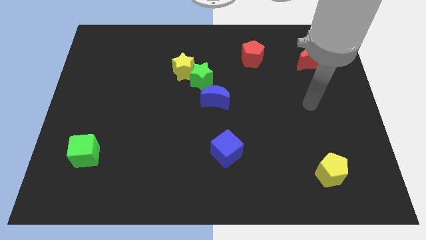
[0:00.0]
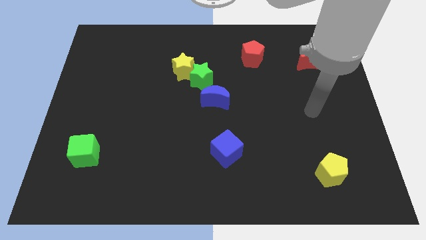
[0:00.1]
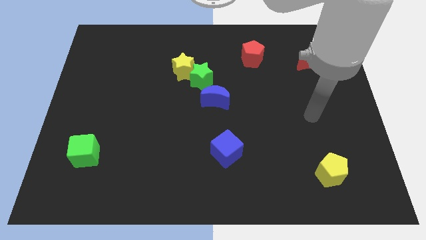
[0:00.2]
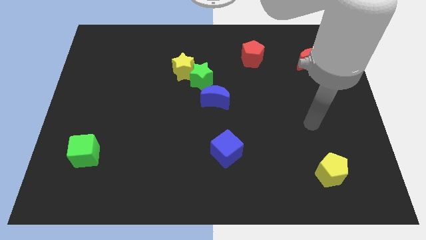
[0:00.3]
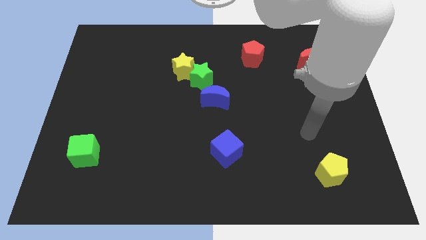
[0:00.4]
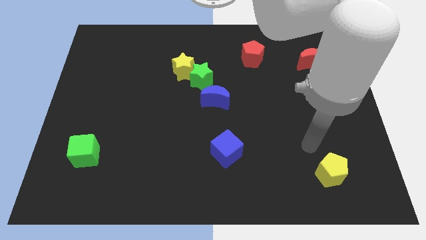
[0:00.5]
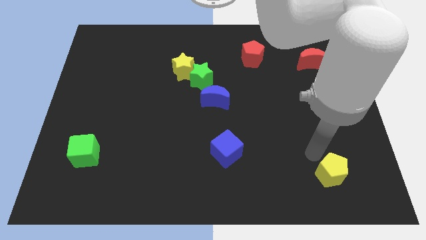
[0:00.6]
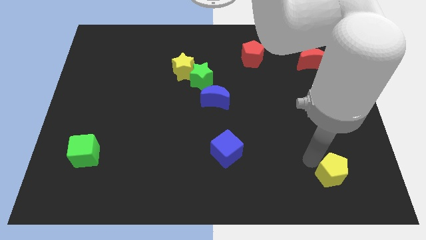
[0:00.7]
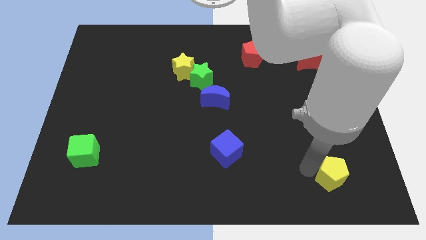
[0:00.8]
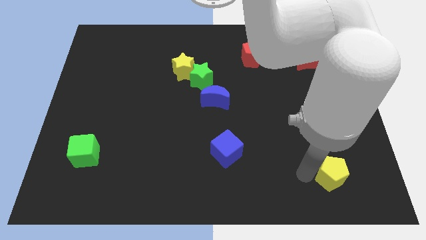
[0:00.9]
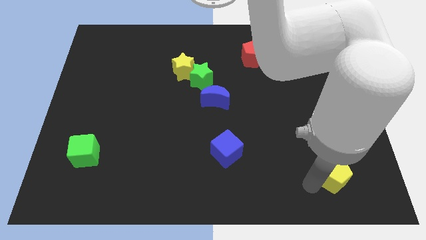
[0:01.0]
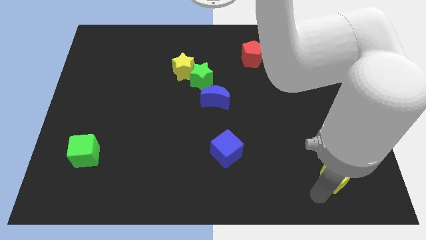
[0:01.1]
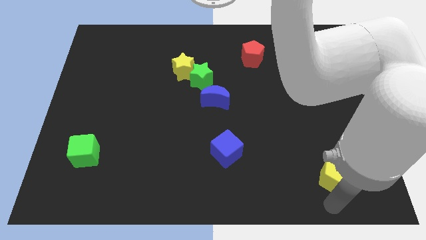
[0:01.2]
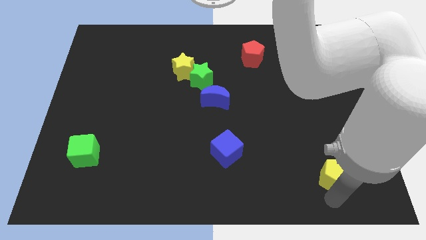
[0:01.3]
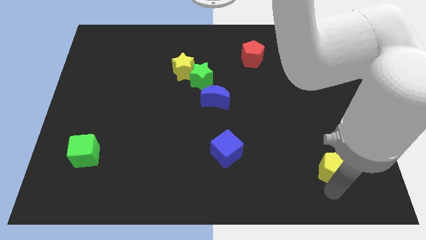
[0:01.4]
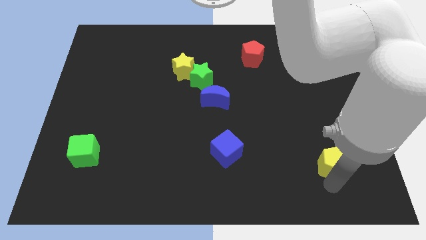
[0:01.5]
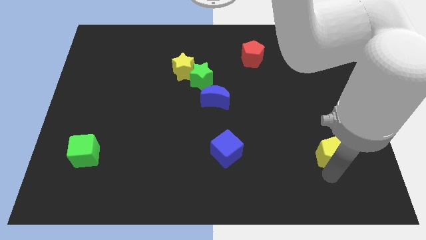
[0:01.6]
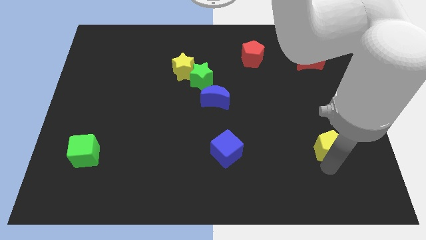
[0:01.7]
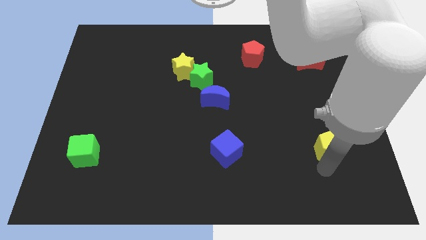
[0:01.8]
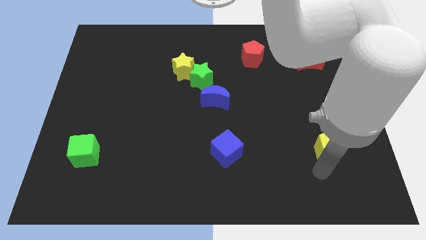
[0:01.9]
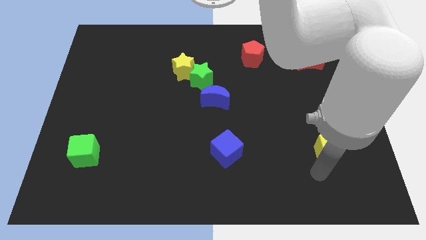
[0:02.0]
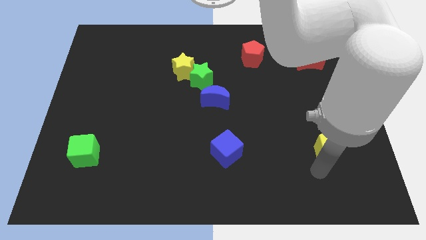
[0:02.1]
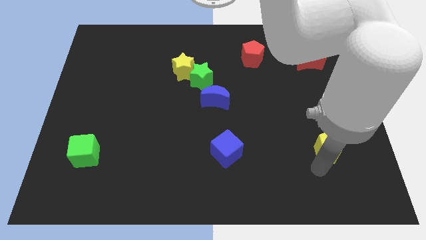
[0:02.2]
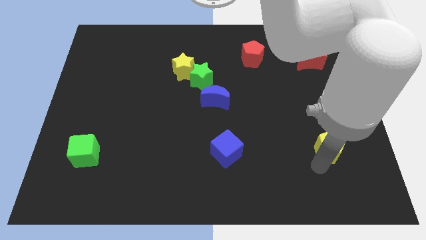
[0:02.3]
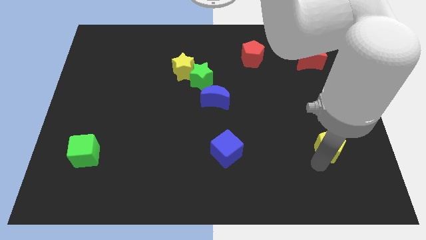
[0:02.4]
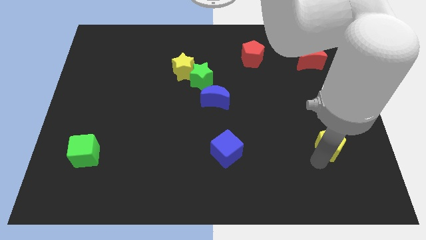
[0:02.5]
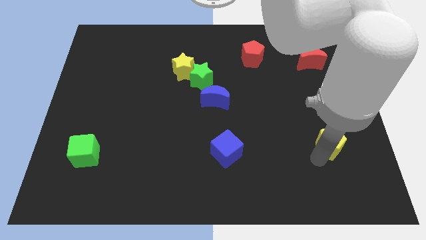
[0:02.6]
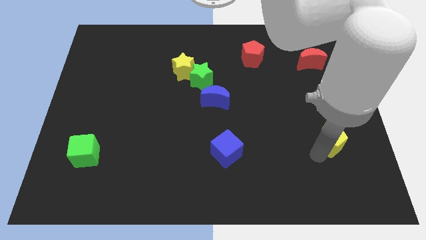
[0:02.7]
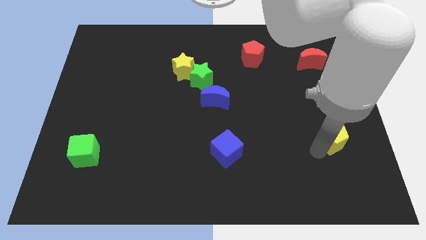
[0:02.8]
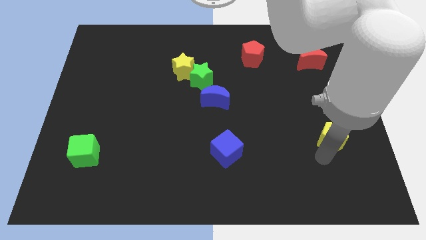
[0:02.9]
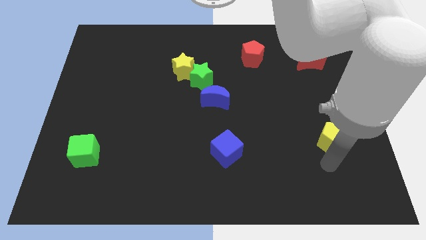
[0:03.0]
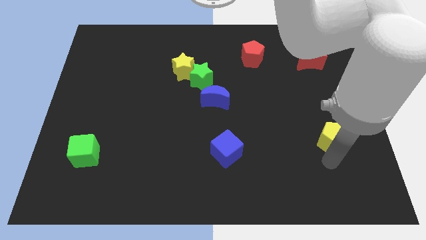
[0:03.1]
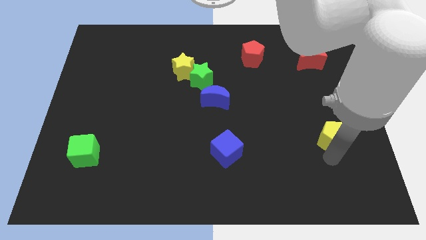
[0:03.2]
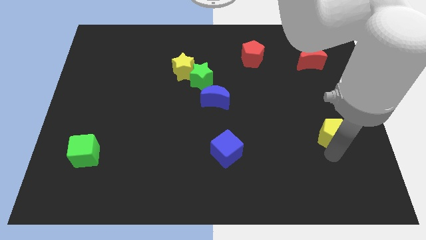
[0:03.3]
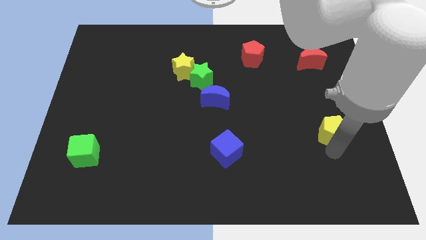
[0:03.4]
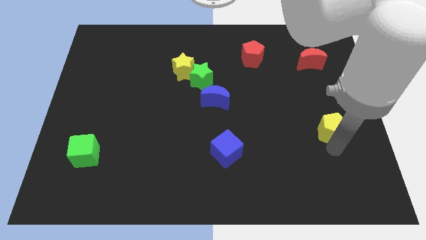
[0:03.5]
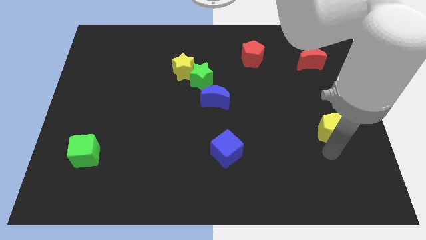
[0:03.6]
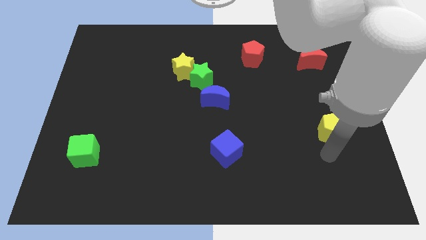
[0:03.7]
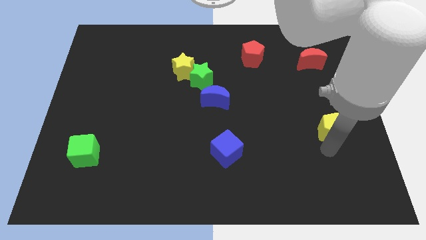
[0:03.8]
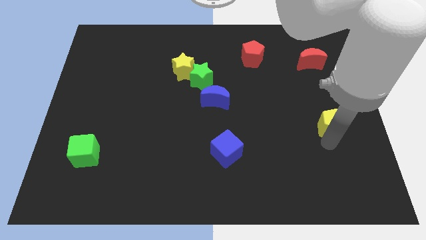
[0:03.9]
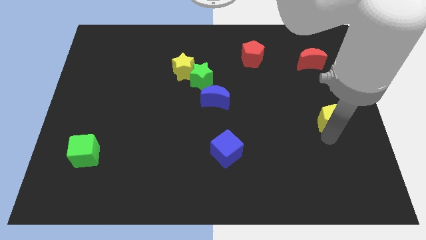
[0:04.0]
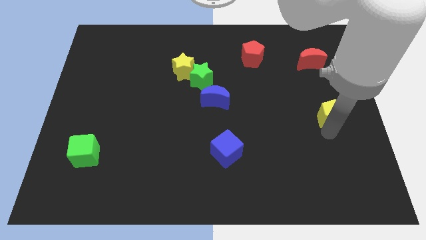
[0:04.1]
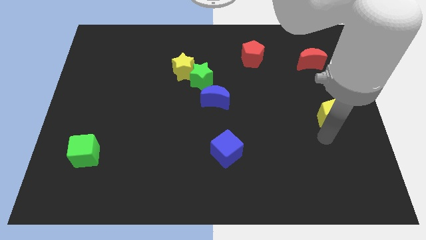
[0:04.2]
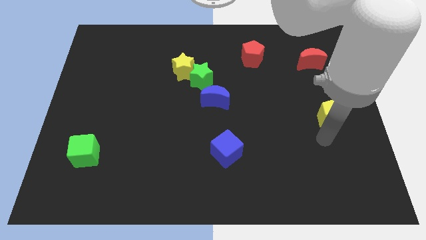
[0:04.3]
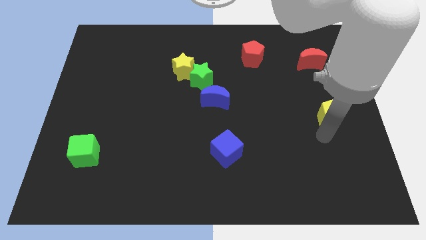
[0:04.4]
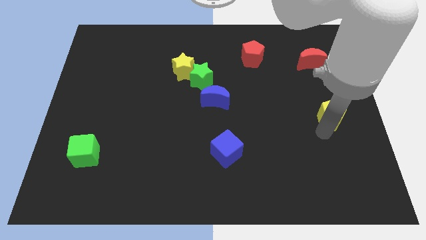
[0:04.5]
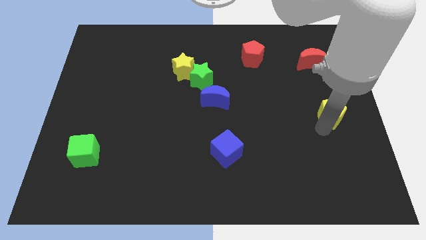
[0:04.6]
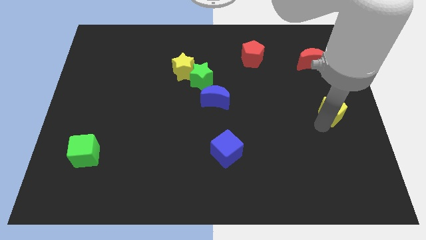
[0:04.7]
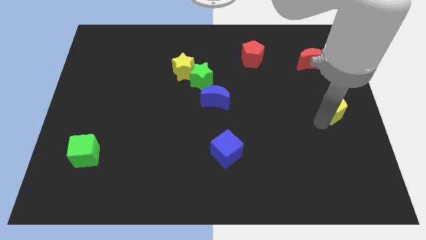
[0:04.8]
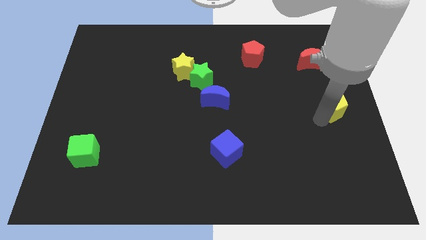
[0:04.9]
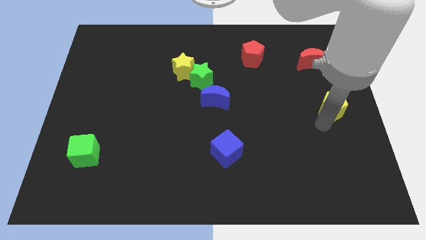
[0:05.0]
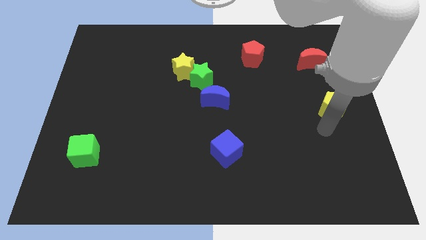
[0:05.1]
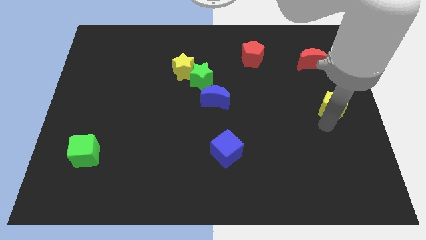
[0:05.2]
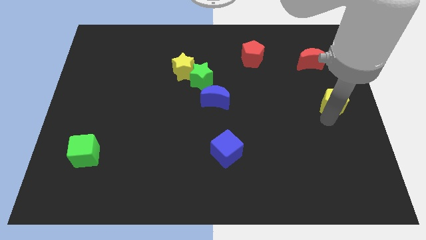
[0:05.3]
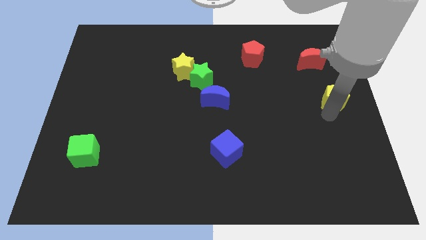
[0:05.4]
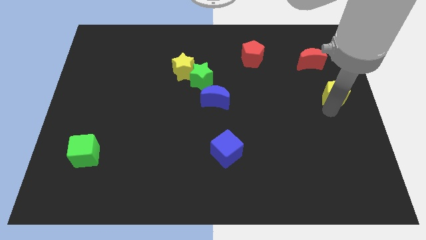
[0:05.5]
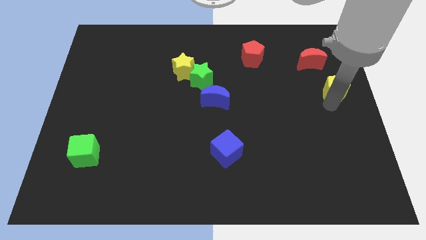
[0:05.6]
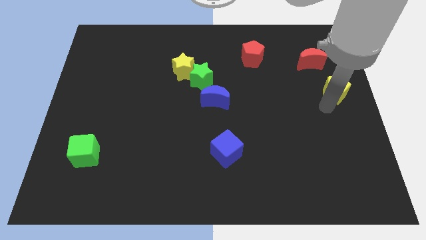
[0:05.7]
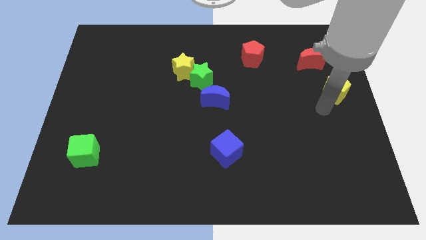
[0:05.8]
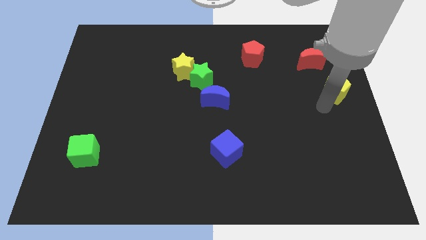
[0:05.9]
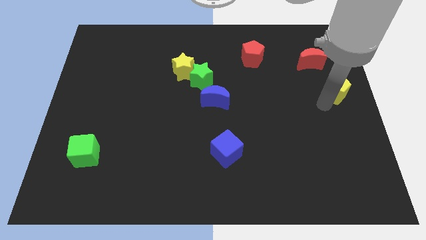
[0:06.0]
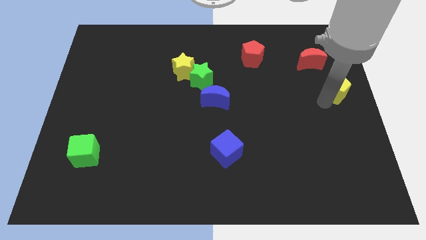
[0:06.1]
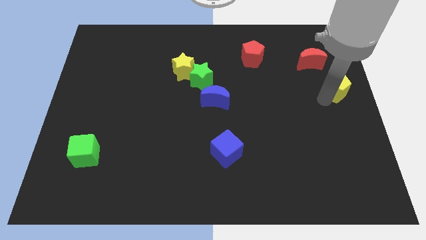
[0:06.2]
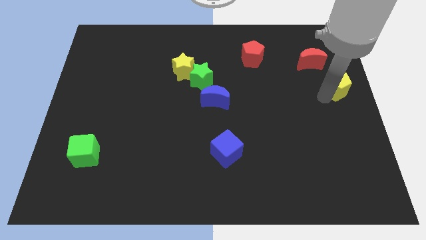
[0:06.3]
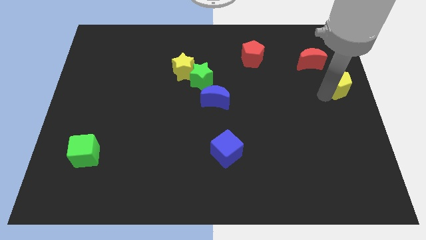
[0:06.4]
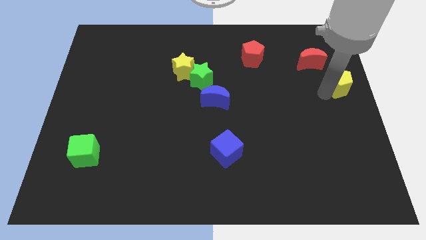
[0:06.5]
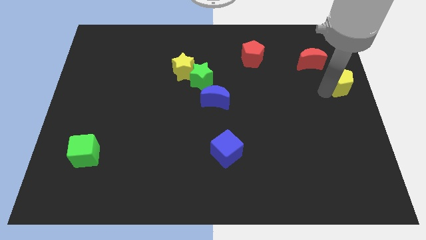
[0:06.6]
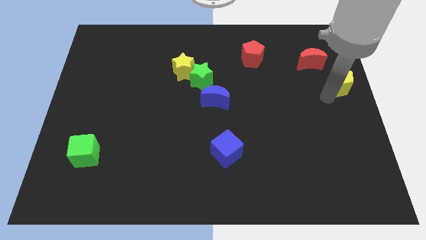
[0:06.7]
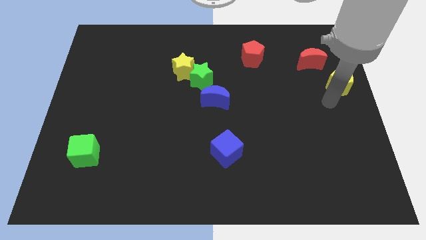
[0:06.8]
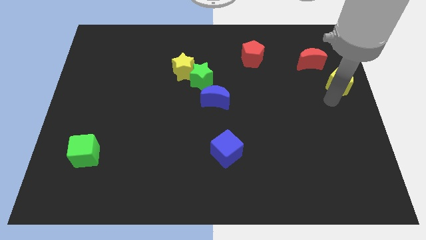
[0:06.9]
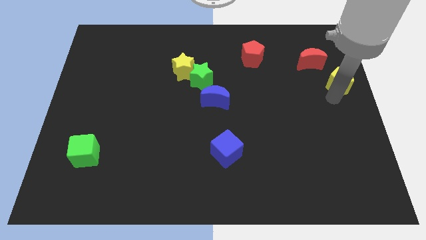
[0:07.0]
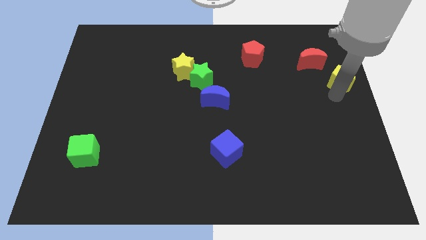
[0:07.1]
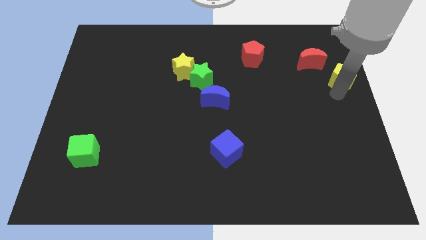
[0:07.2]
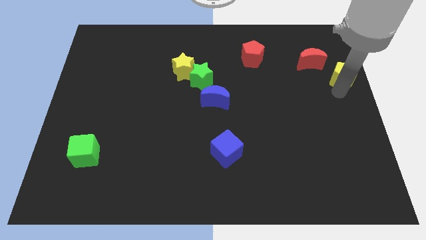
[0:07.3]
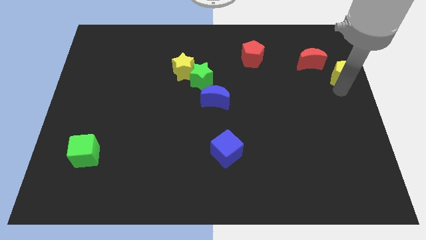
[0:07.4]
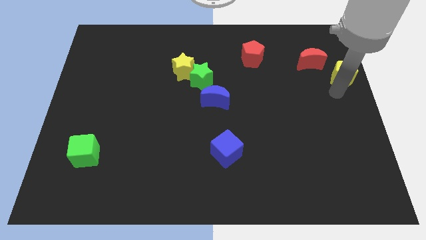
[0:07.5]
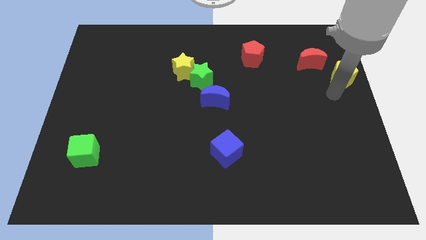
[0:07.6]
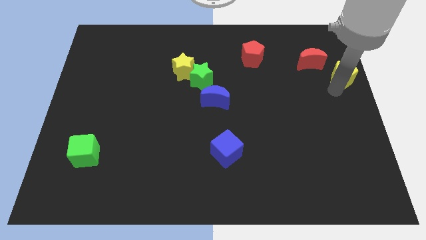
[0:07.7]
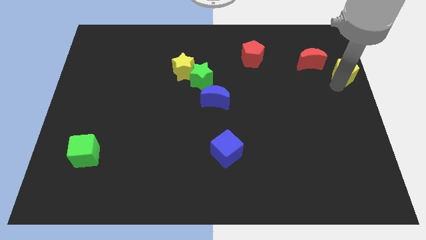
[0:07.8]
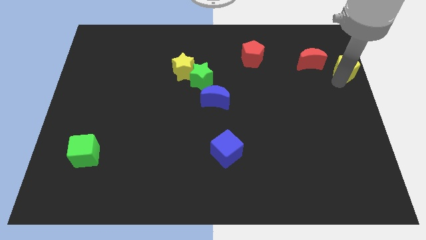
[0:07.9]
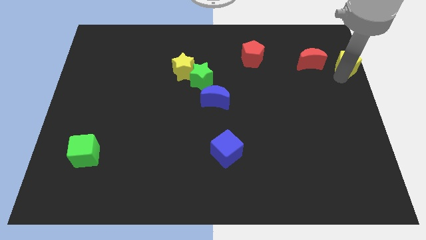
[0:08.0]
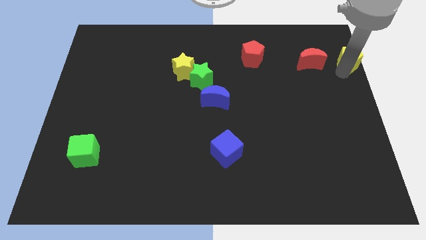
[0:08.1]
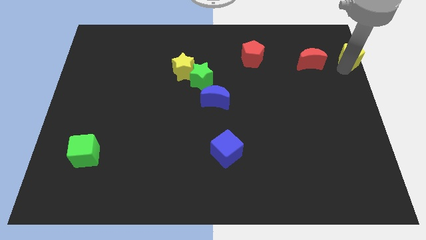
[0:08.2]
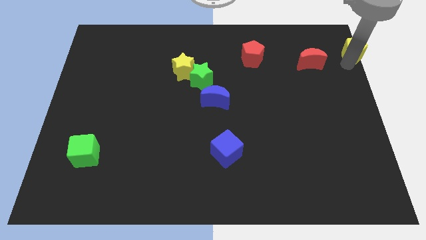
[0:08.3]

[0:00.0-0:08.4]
put the yellow pentagon to the top right corner
